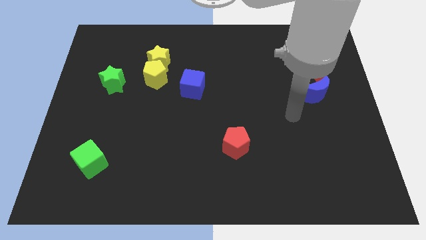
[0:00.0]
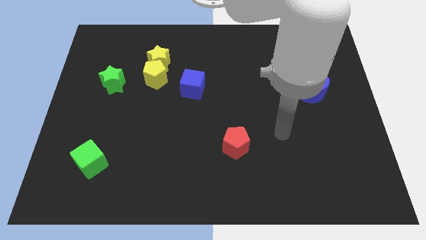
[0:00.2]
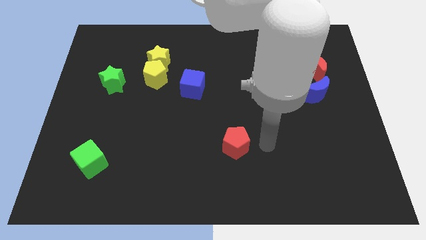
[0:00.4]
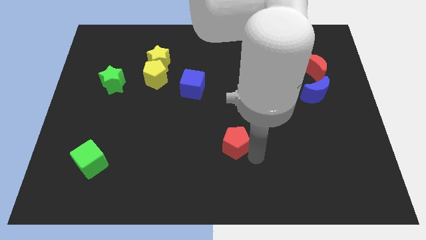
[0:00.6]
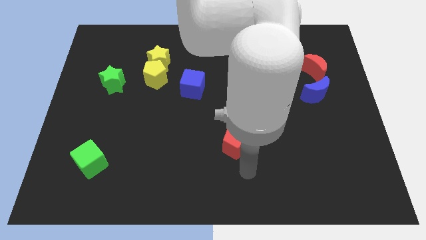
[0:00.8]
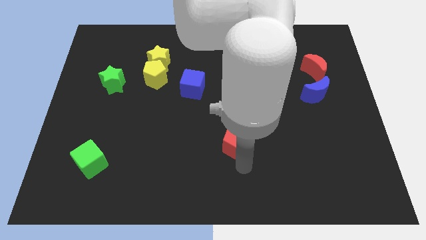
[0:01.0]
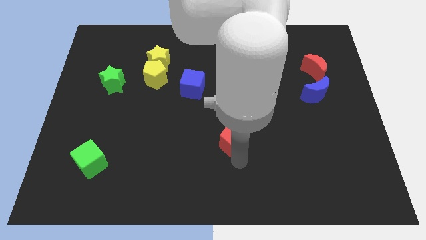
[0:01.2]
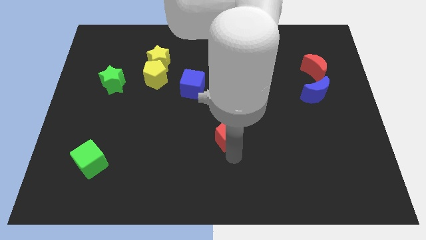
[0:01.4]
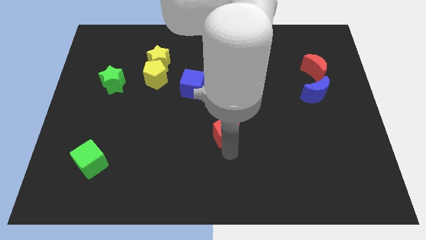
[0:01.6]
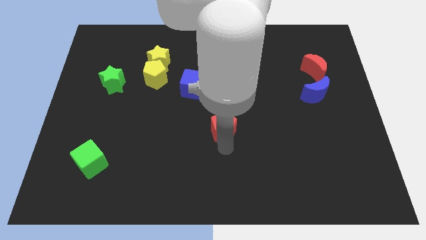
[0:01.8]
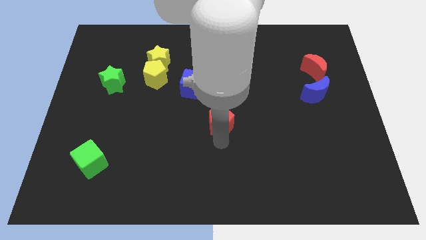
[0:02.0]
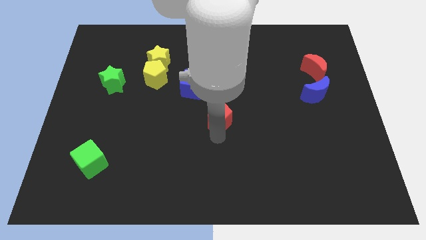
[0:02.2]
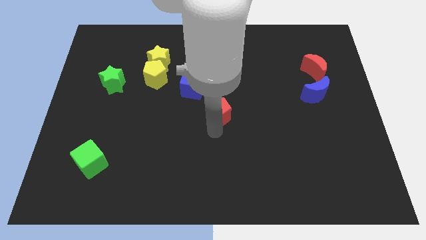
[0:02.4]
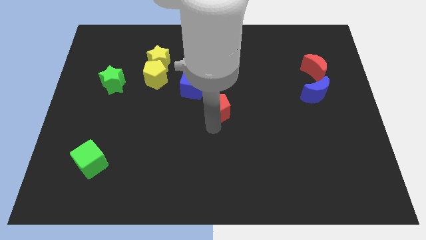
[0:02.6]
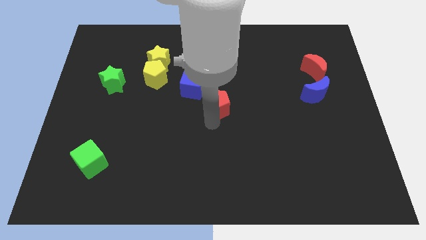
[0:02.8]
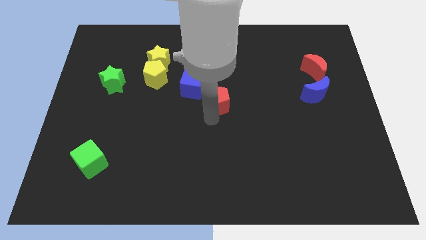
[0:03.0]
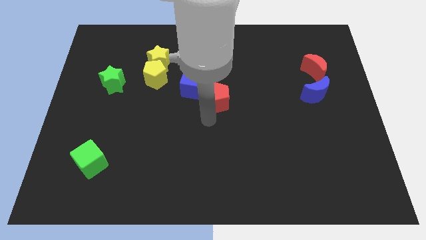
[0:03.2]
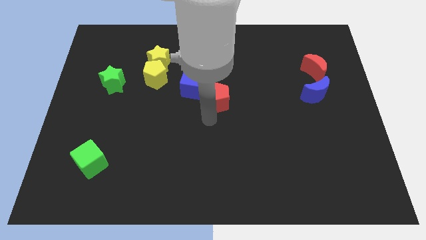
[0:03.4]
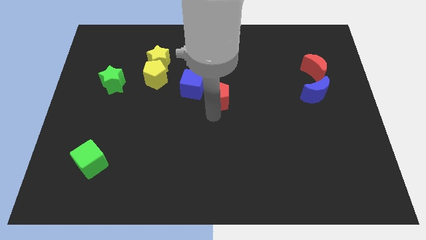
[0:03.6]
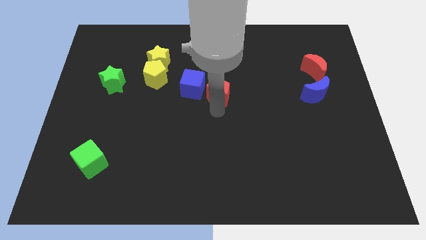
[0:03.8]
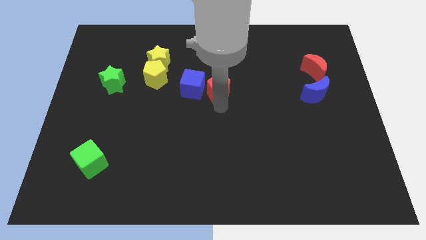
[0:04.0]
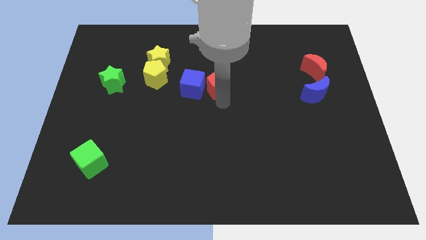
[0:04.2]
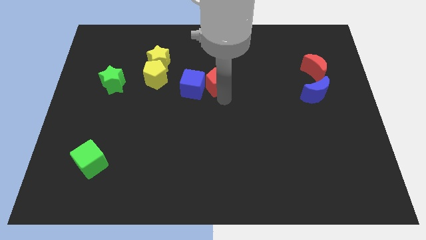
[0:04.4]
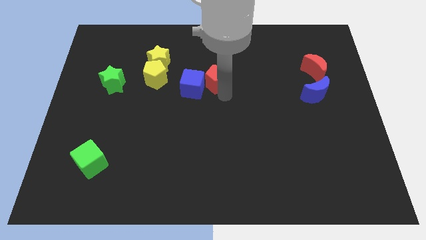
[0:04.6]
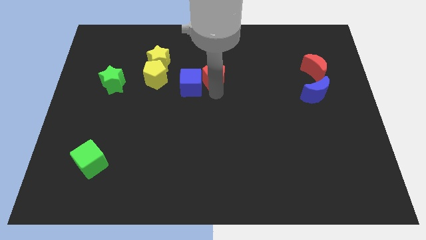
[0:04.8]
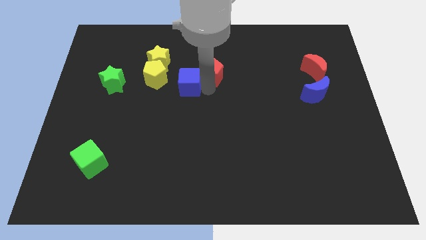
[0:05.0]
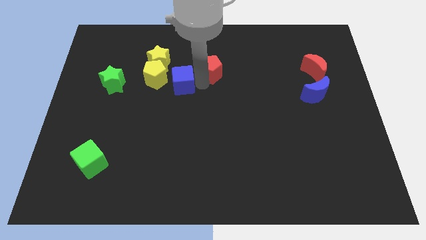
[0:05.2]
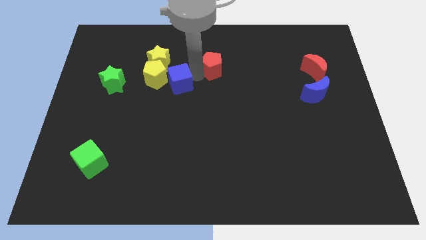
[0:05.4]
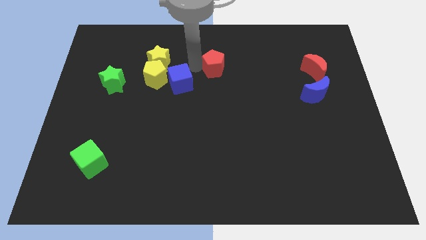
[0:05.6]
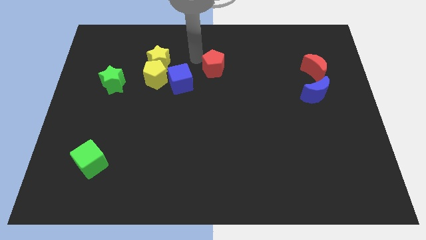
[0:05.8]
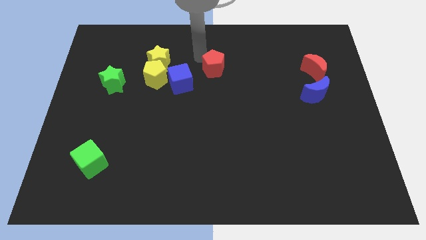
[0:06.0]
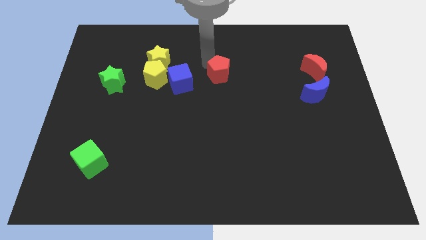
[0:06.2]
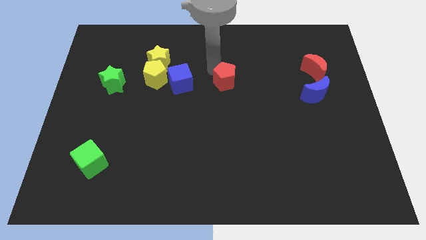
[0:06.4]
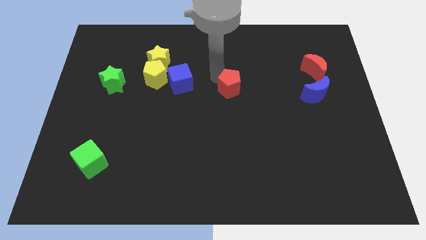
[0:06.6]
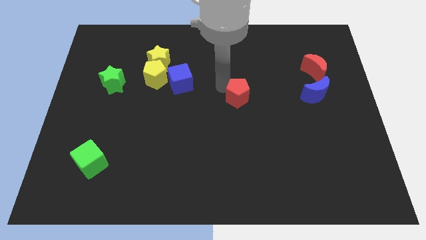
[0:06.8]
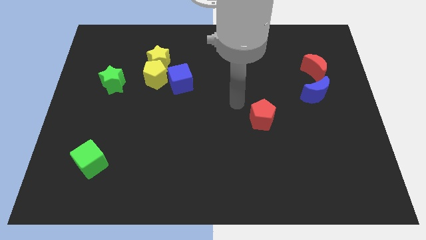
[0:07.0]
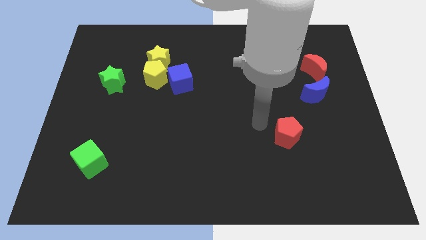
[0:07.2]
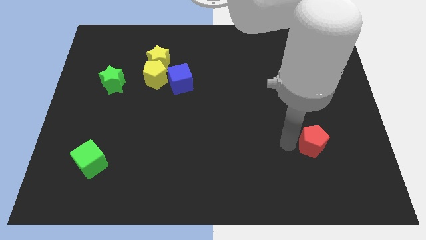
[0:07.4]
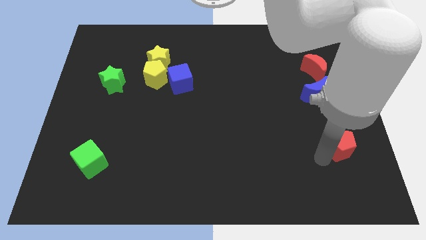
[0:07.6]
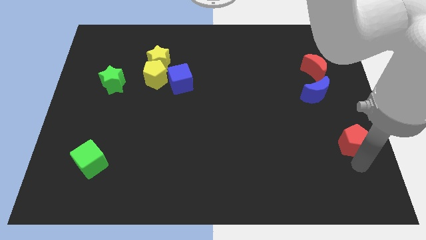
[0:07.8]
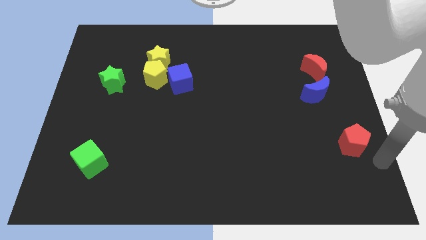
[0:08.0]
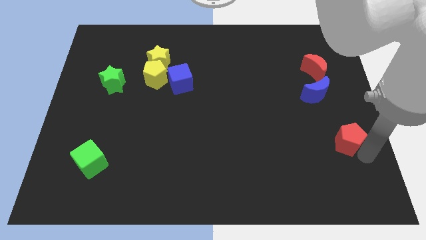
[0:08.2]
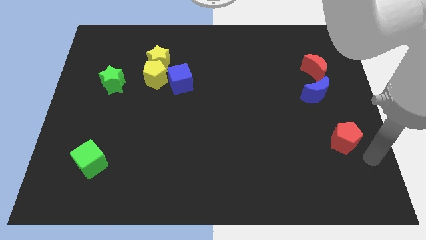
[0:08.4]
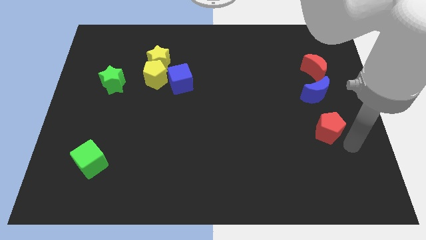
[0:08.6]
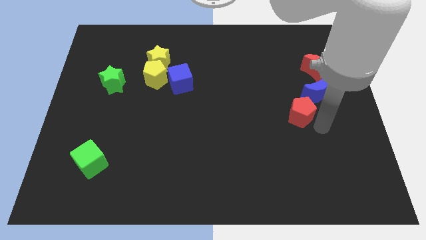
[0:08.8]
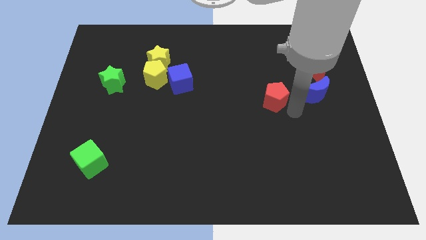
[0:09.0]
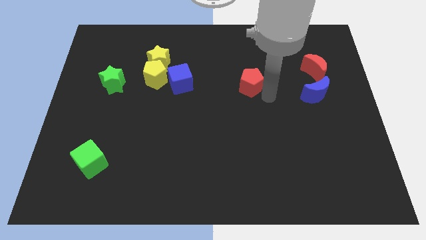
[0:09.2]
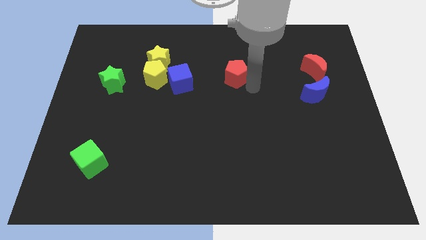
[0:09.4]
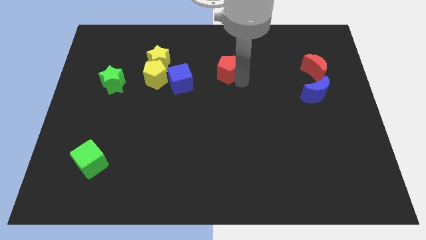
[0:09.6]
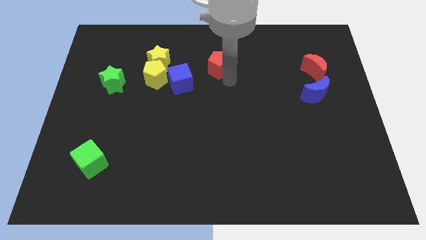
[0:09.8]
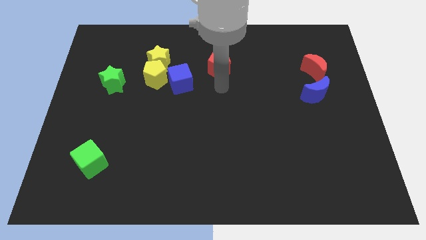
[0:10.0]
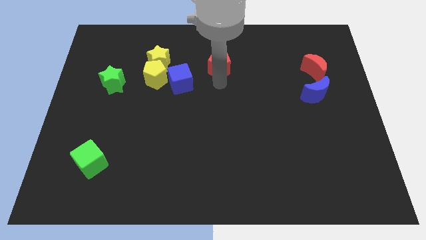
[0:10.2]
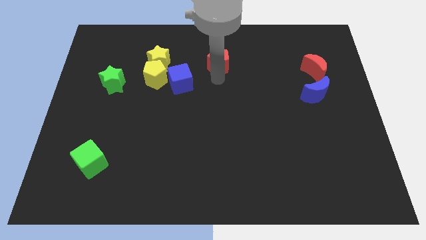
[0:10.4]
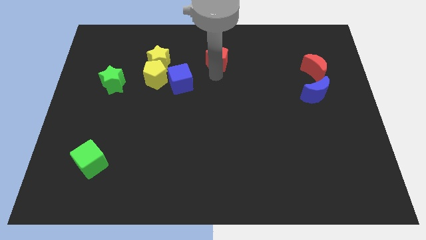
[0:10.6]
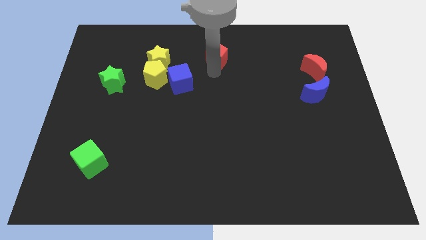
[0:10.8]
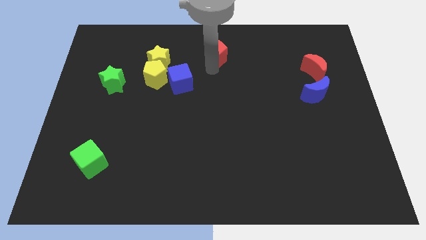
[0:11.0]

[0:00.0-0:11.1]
move the red pentagon to the towards your base
